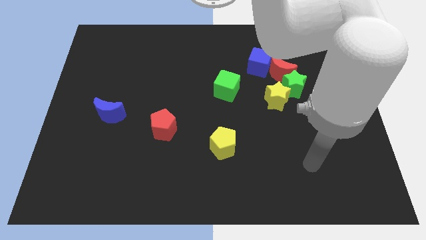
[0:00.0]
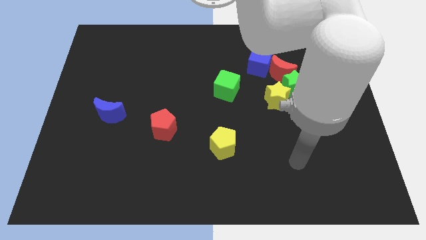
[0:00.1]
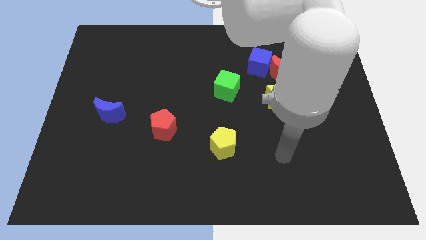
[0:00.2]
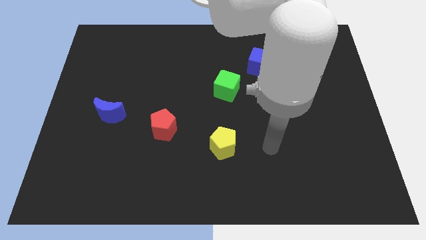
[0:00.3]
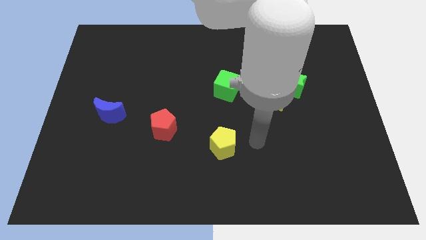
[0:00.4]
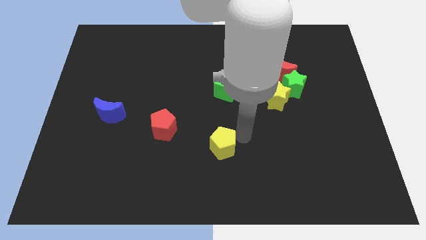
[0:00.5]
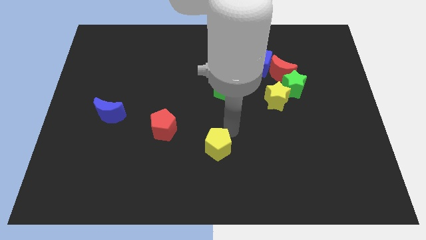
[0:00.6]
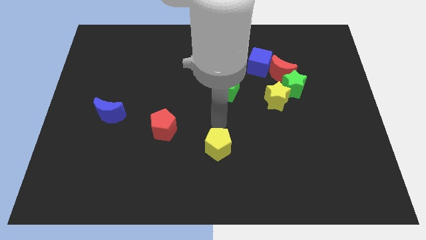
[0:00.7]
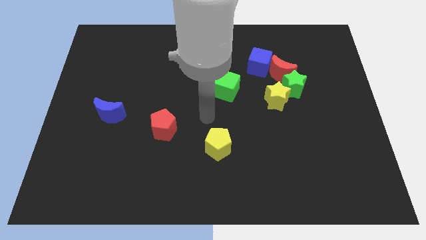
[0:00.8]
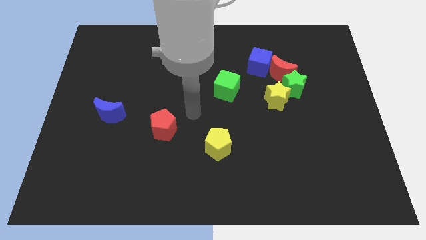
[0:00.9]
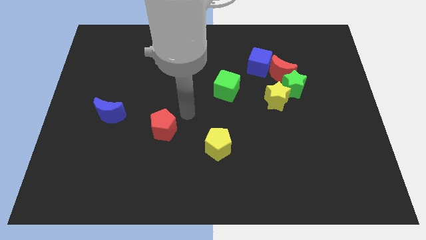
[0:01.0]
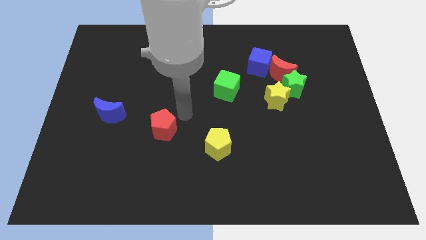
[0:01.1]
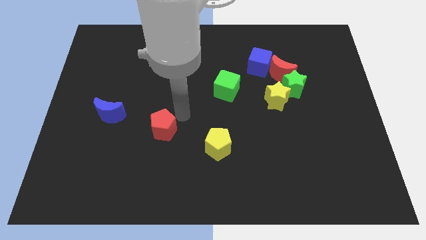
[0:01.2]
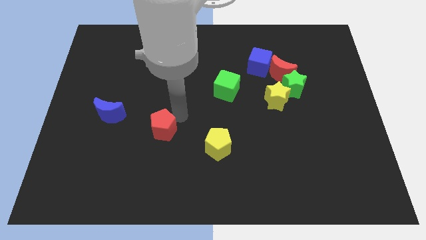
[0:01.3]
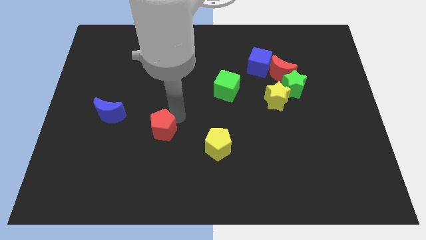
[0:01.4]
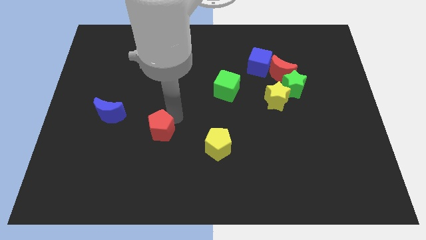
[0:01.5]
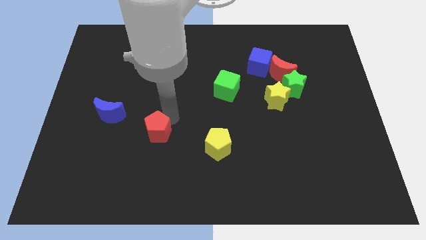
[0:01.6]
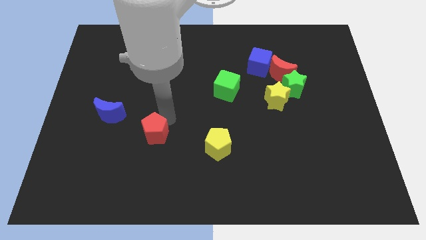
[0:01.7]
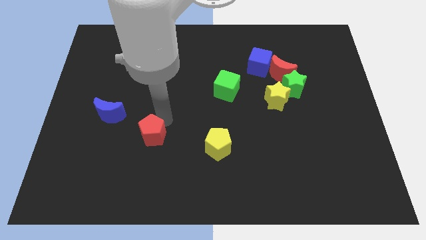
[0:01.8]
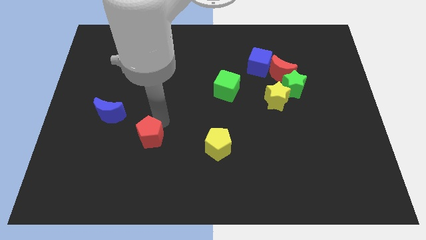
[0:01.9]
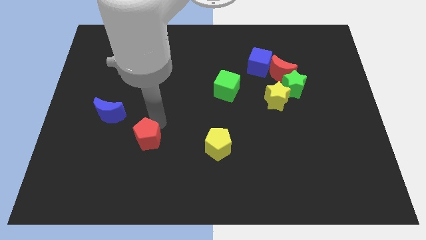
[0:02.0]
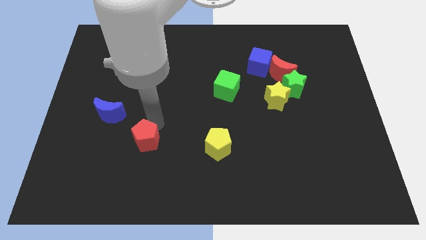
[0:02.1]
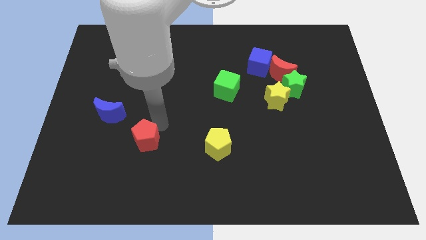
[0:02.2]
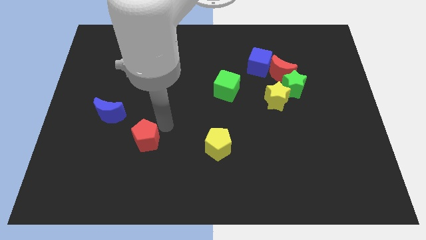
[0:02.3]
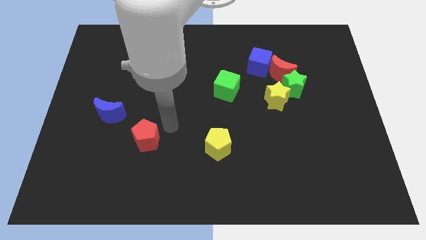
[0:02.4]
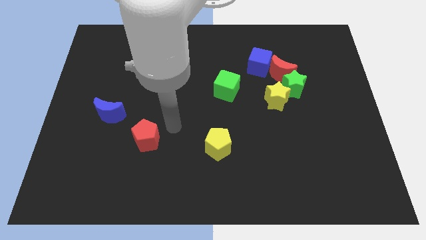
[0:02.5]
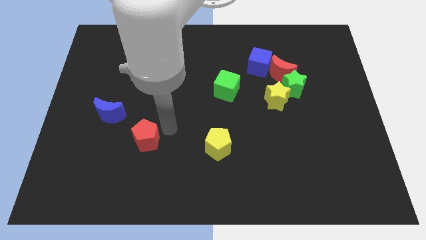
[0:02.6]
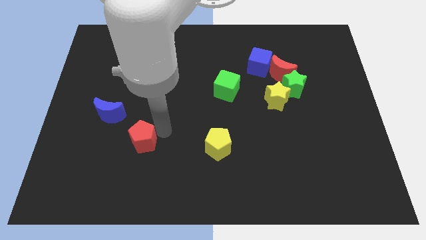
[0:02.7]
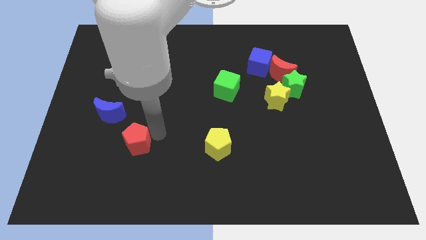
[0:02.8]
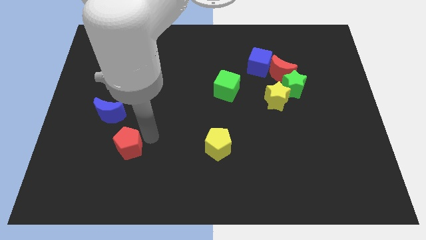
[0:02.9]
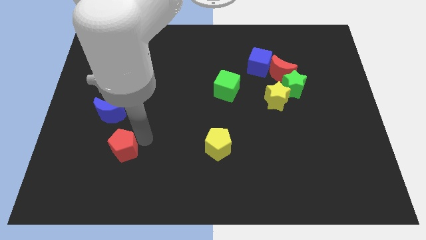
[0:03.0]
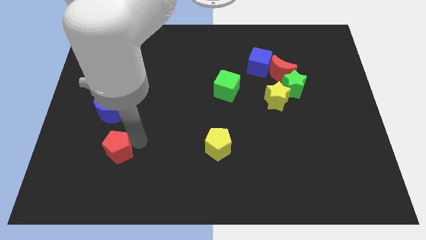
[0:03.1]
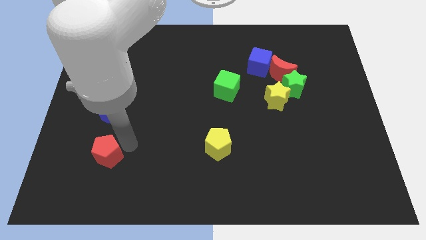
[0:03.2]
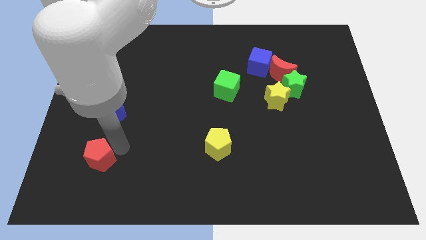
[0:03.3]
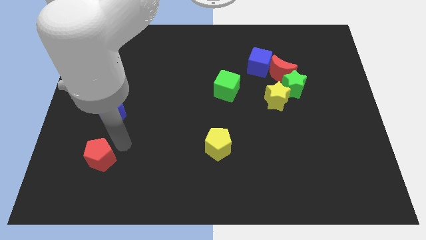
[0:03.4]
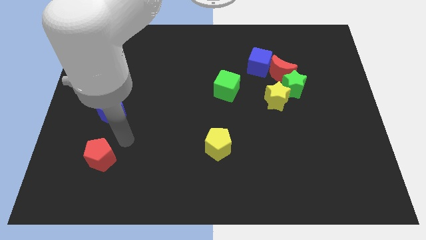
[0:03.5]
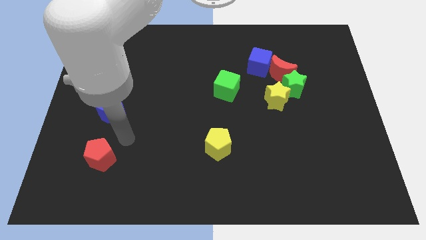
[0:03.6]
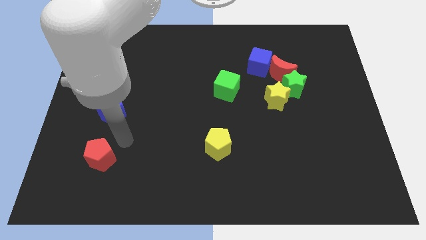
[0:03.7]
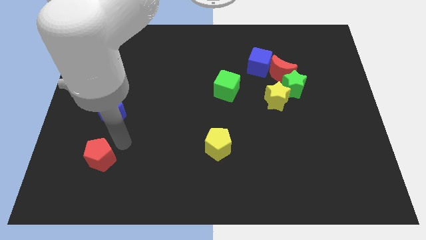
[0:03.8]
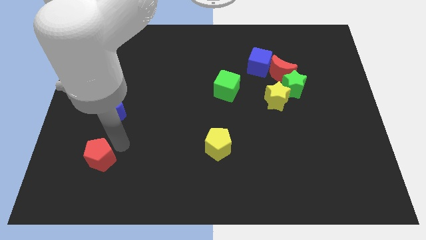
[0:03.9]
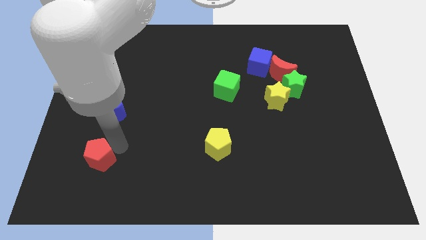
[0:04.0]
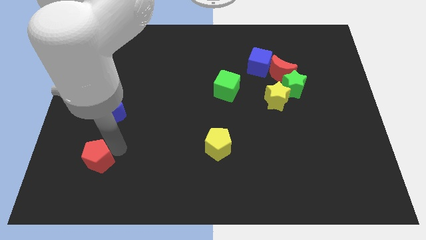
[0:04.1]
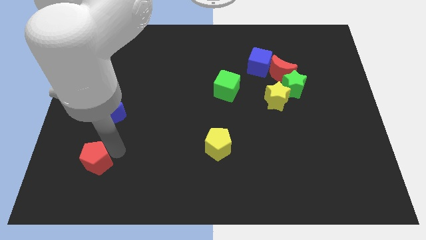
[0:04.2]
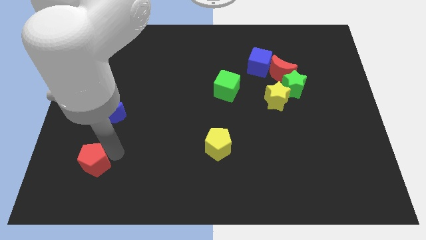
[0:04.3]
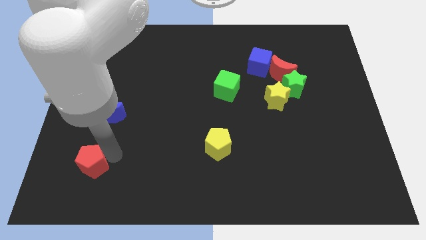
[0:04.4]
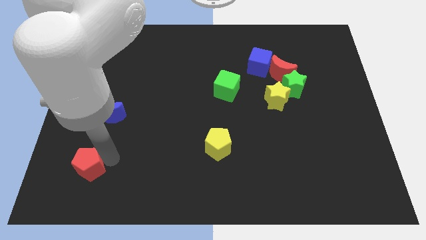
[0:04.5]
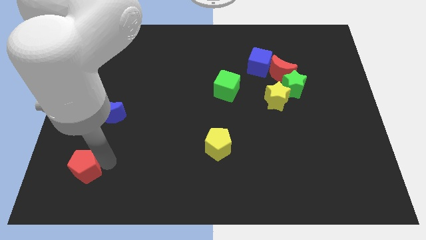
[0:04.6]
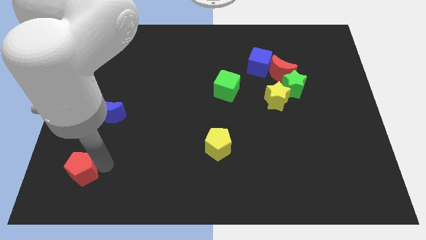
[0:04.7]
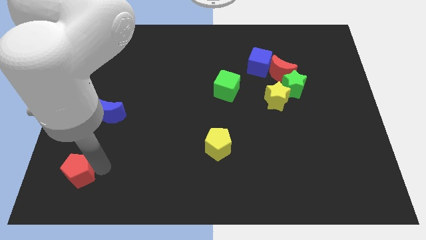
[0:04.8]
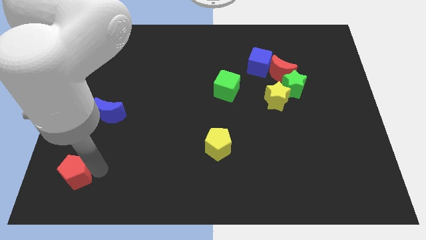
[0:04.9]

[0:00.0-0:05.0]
move the red pentagon to the lower left corner

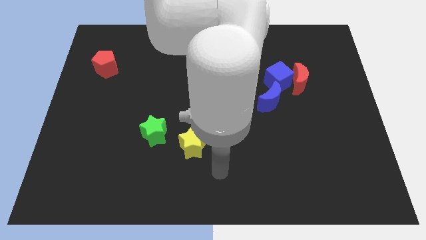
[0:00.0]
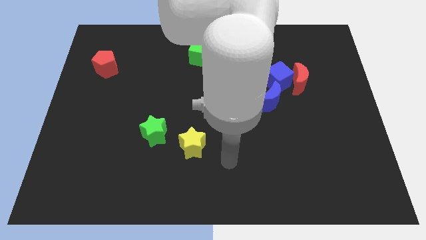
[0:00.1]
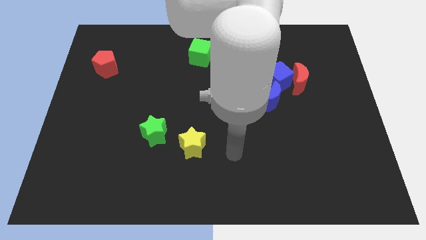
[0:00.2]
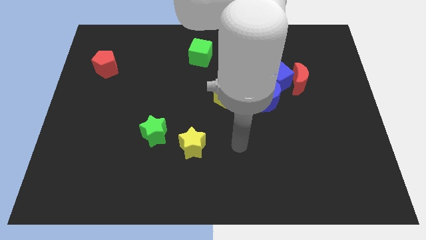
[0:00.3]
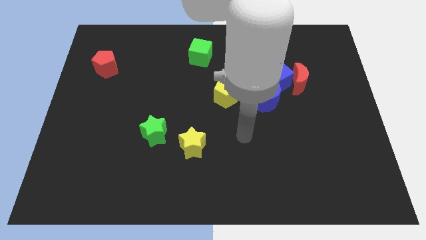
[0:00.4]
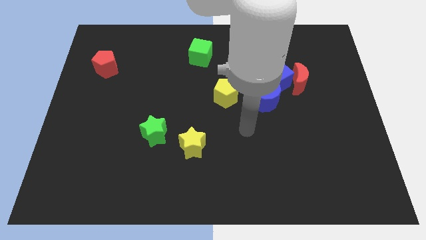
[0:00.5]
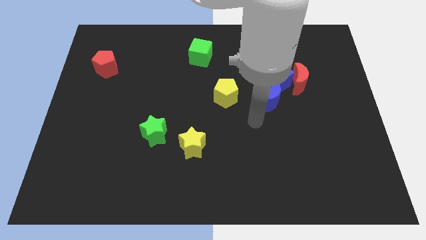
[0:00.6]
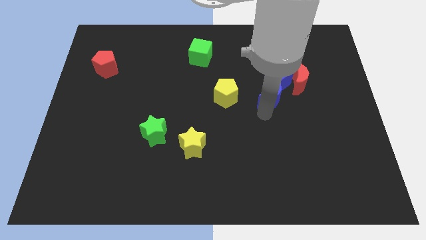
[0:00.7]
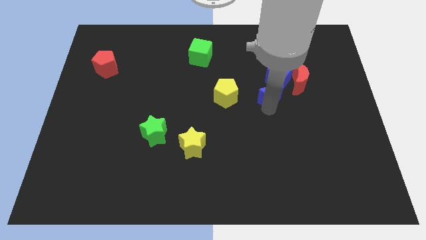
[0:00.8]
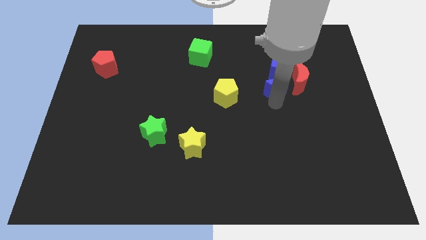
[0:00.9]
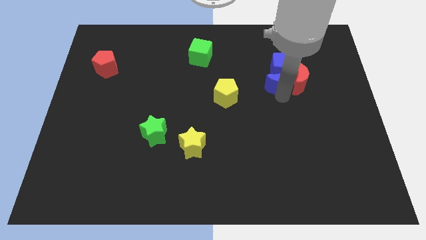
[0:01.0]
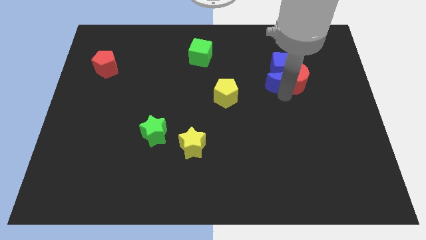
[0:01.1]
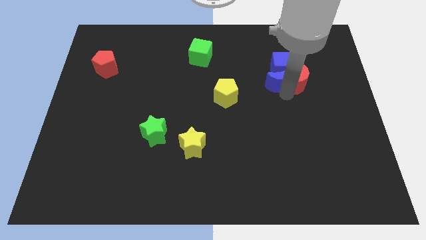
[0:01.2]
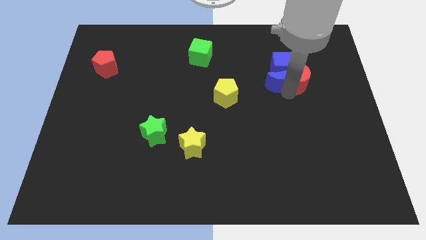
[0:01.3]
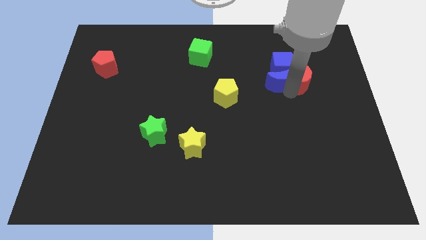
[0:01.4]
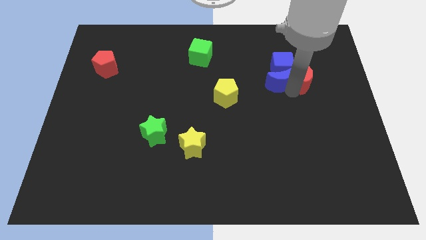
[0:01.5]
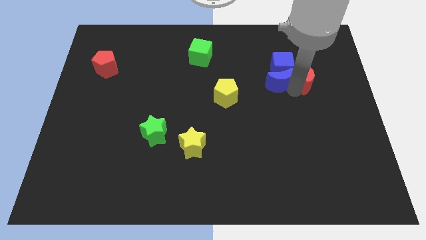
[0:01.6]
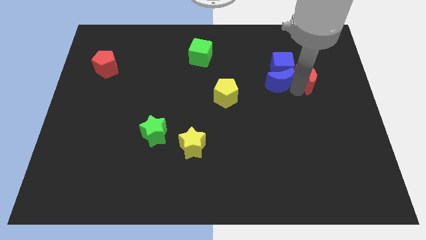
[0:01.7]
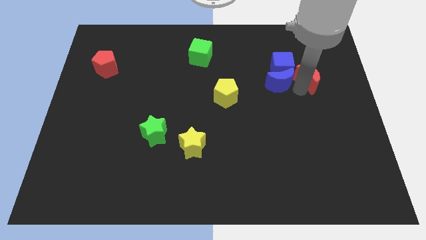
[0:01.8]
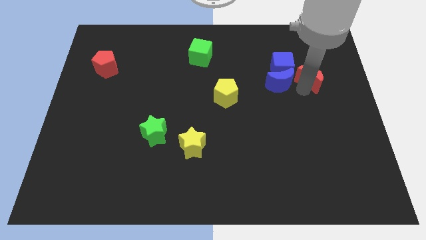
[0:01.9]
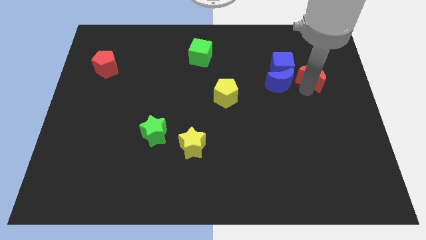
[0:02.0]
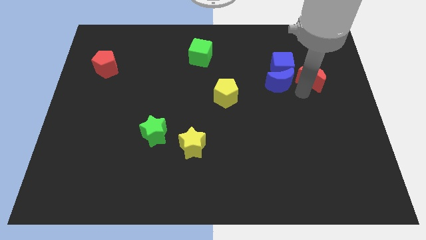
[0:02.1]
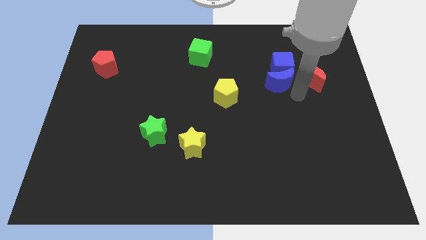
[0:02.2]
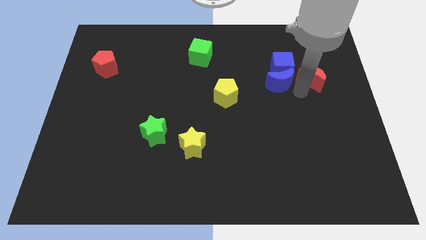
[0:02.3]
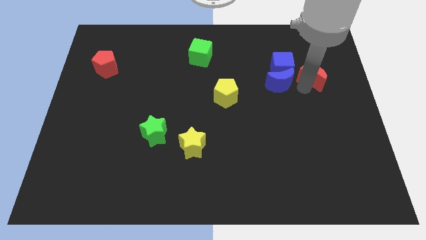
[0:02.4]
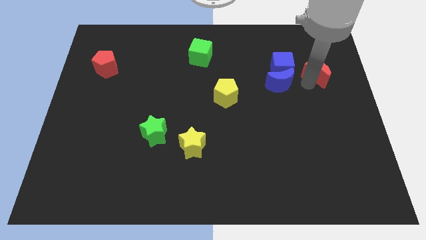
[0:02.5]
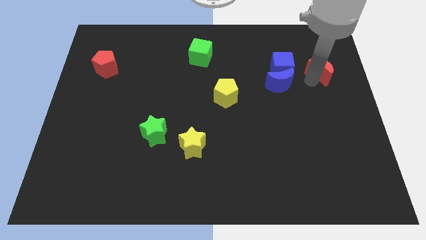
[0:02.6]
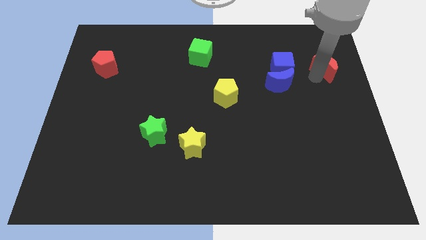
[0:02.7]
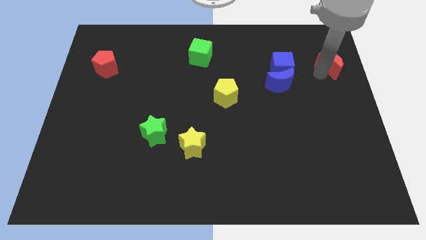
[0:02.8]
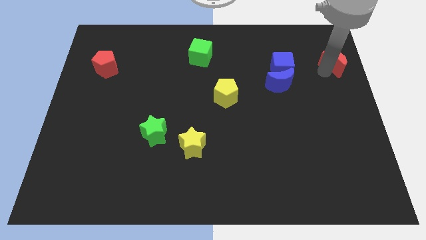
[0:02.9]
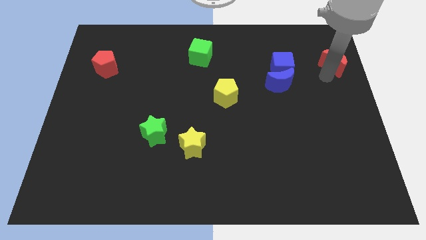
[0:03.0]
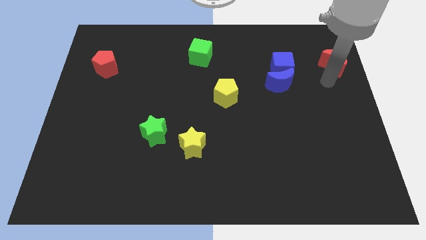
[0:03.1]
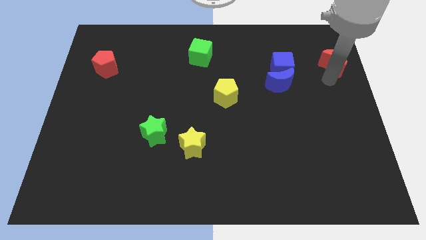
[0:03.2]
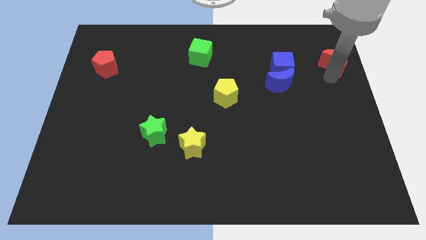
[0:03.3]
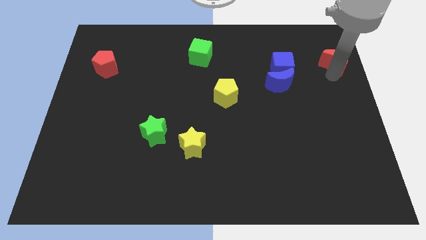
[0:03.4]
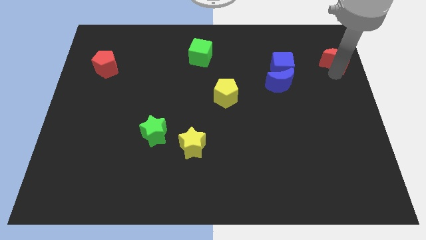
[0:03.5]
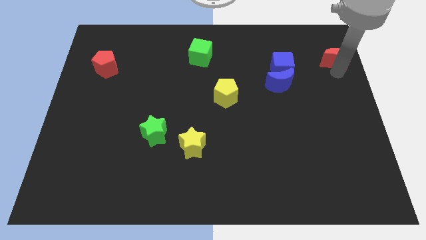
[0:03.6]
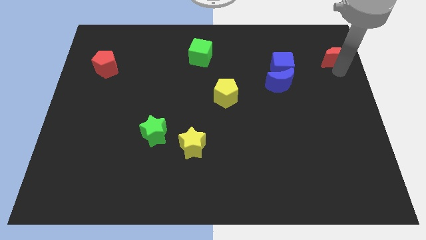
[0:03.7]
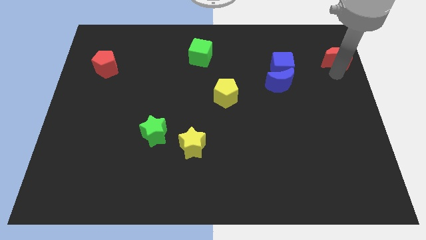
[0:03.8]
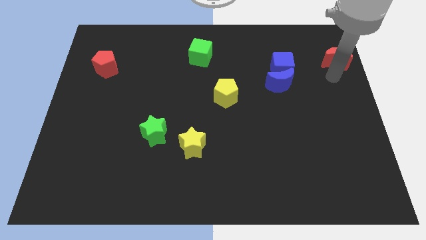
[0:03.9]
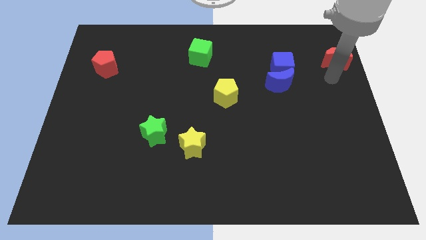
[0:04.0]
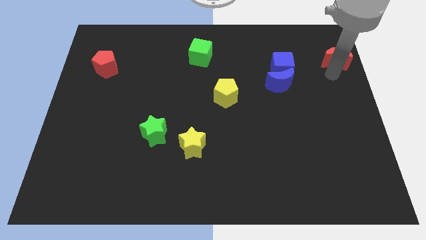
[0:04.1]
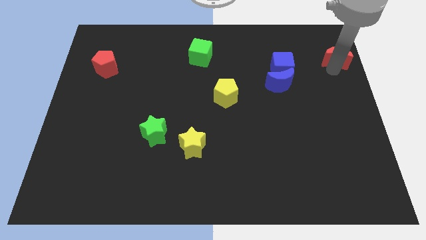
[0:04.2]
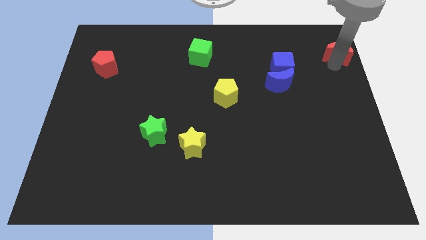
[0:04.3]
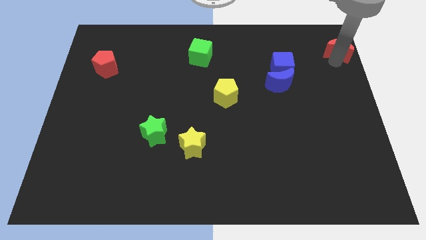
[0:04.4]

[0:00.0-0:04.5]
push the red moon to the top right
